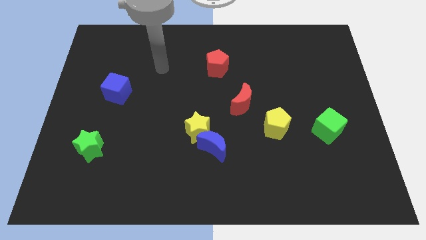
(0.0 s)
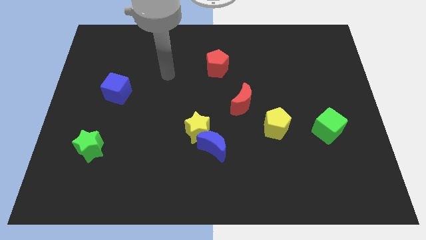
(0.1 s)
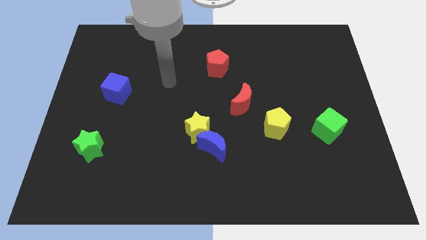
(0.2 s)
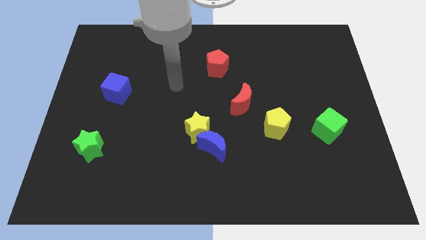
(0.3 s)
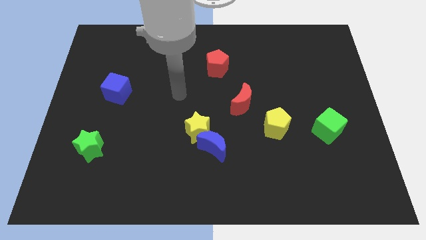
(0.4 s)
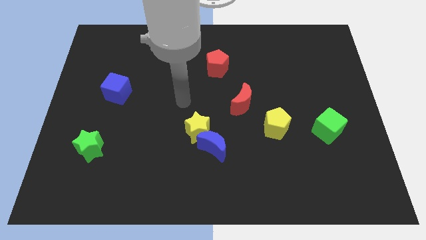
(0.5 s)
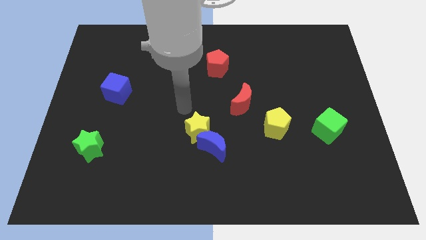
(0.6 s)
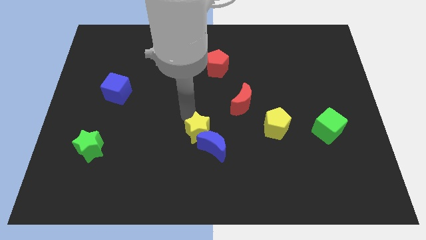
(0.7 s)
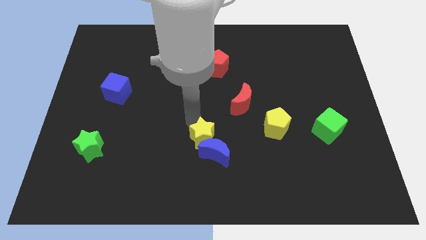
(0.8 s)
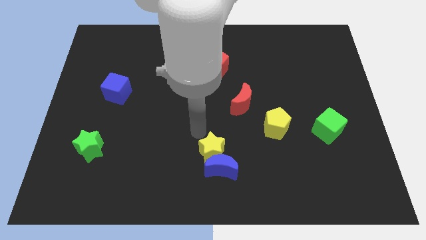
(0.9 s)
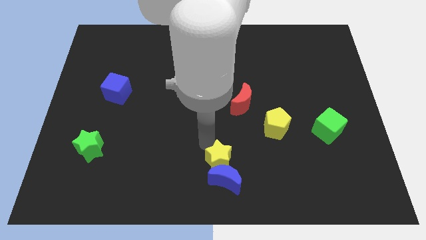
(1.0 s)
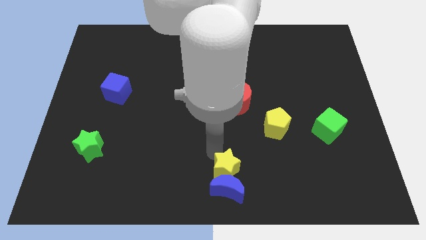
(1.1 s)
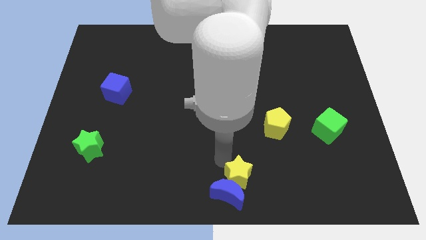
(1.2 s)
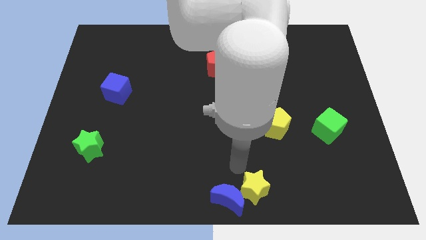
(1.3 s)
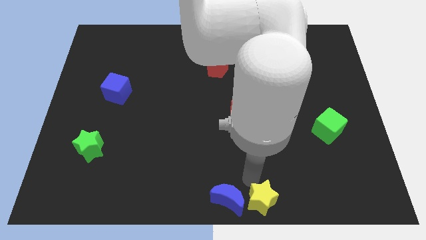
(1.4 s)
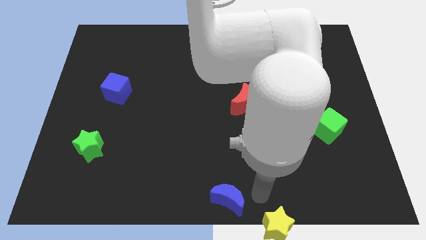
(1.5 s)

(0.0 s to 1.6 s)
move the blue moon away from the yellow star

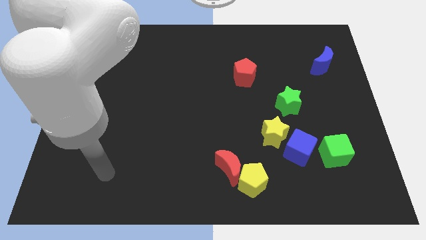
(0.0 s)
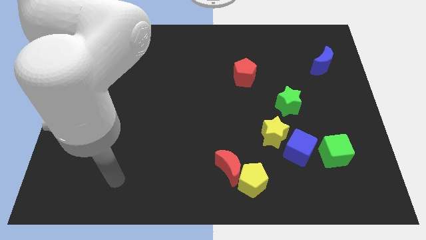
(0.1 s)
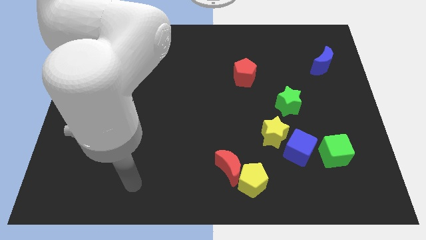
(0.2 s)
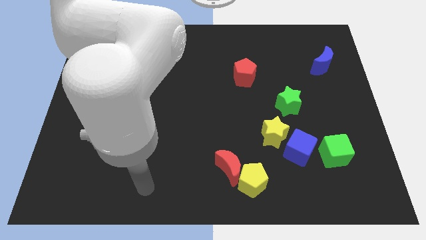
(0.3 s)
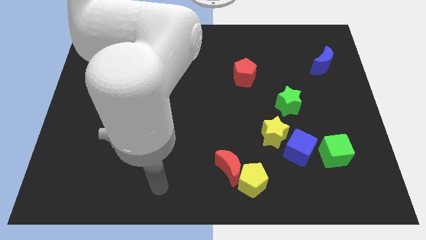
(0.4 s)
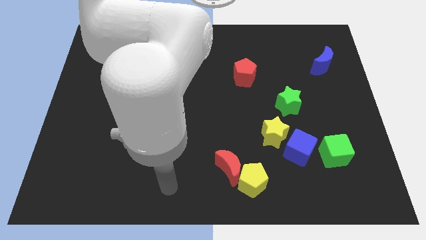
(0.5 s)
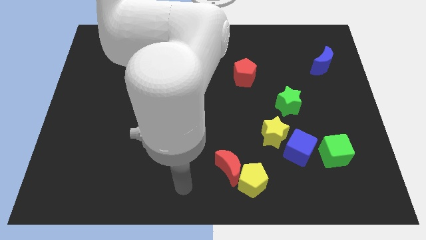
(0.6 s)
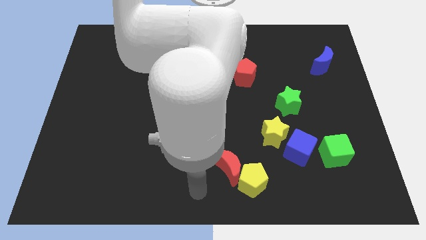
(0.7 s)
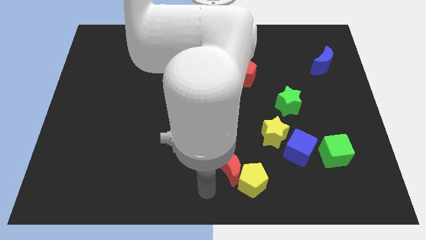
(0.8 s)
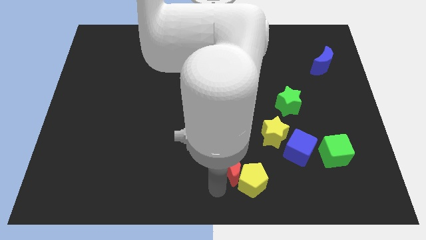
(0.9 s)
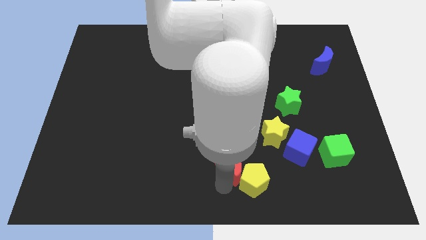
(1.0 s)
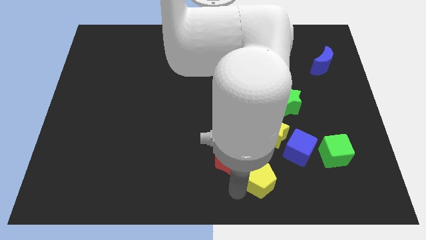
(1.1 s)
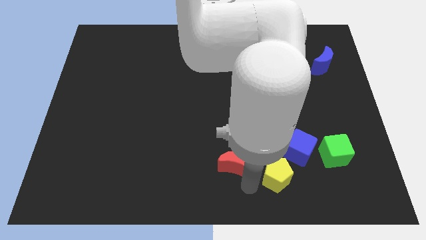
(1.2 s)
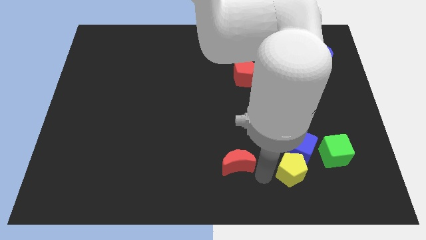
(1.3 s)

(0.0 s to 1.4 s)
move the red moon away from the yellow pentagon

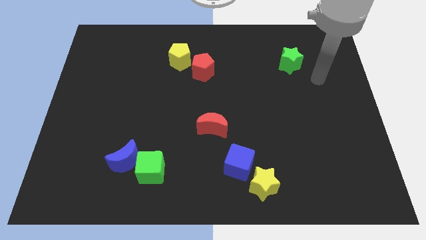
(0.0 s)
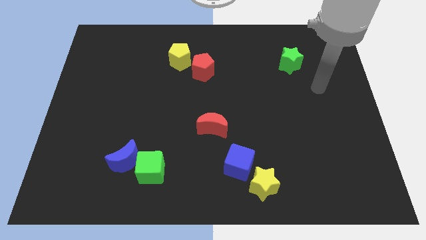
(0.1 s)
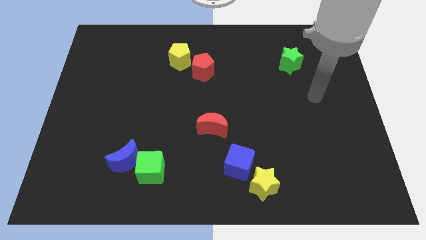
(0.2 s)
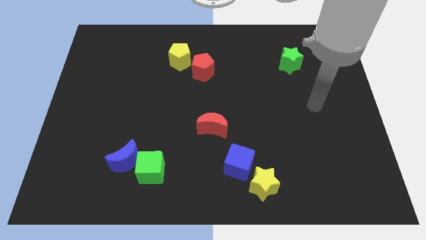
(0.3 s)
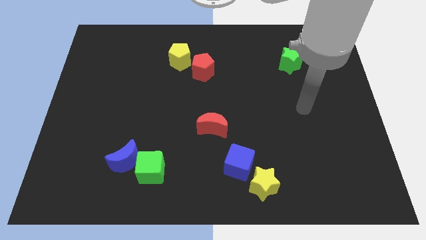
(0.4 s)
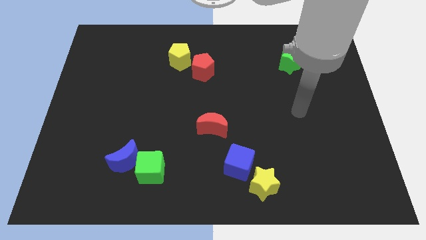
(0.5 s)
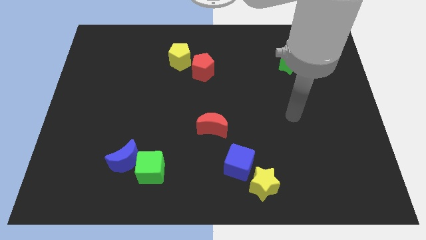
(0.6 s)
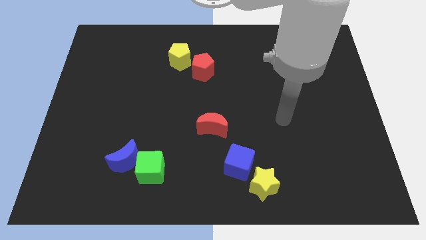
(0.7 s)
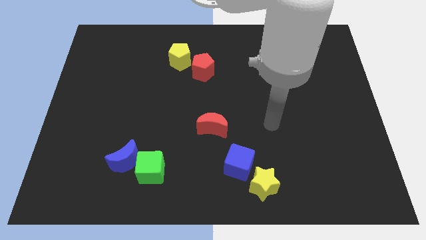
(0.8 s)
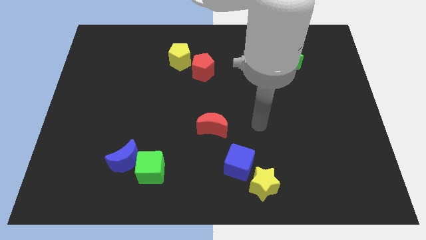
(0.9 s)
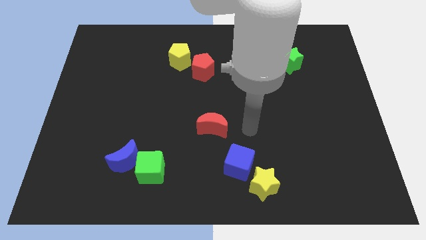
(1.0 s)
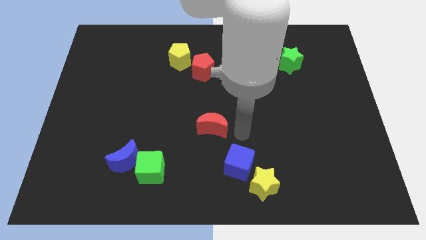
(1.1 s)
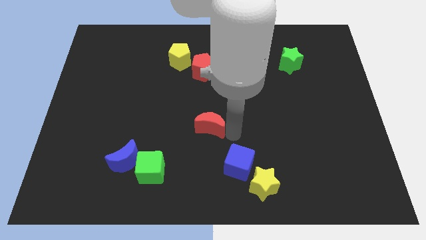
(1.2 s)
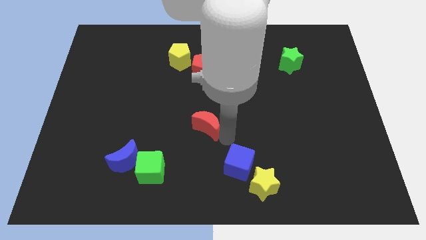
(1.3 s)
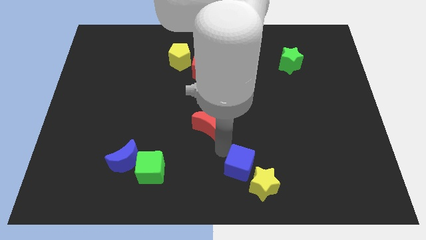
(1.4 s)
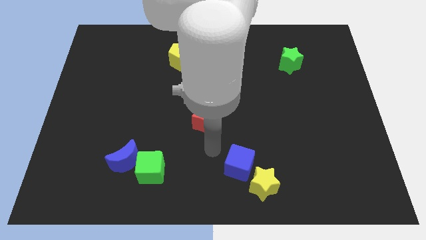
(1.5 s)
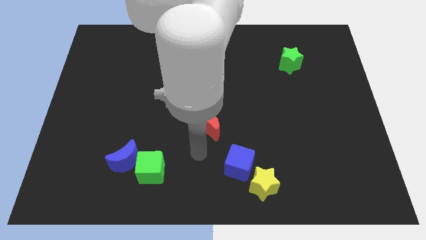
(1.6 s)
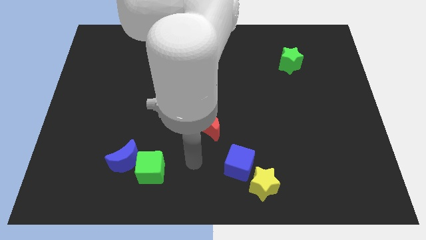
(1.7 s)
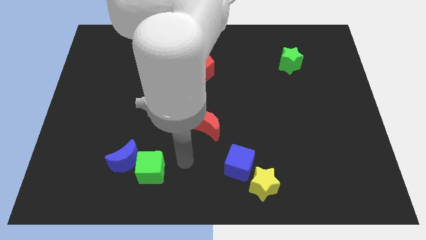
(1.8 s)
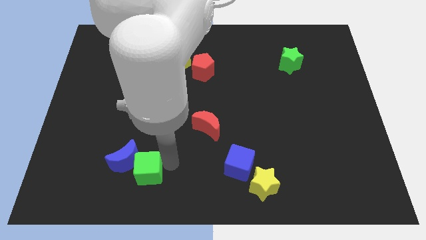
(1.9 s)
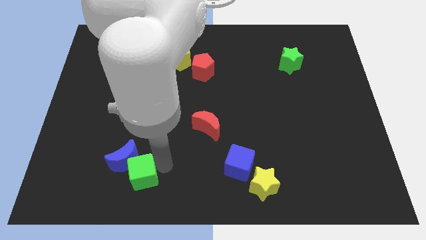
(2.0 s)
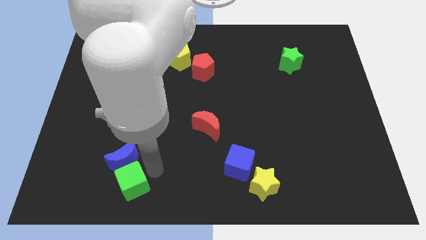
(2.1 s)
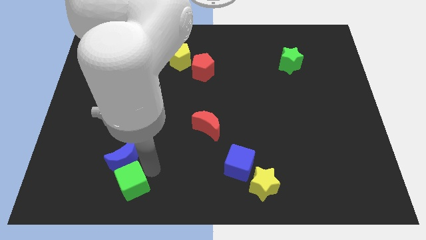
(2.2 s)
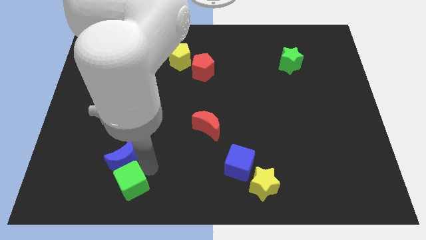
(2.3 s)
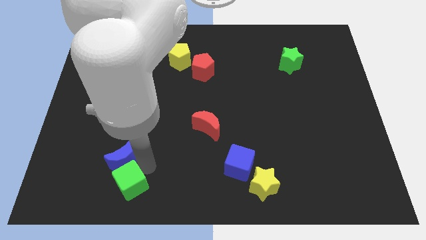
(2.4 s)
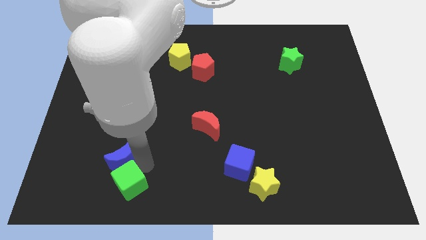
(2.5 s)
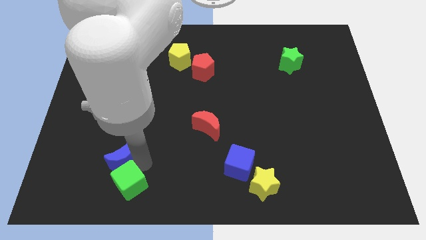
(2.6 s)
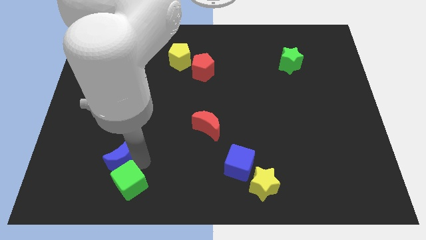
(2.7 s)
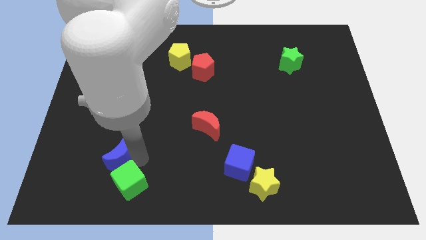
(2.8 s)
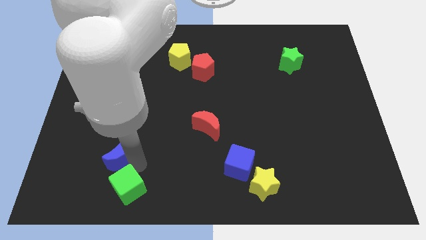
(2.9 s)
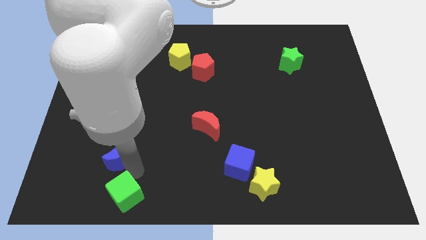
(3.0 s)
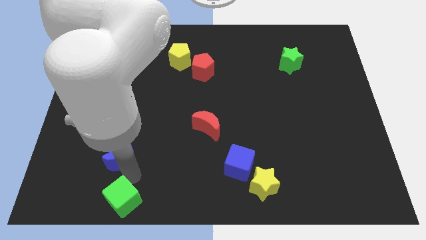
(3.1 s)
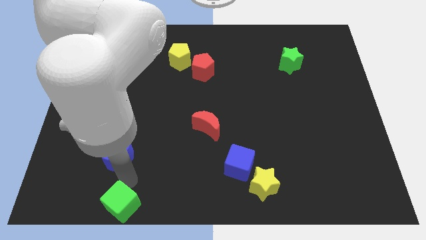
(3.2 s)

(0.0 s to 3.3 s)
pull the blue moon apart from the green cube

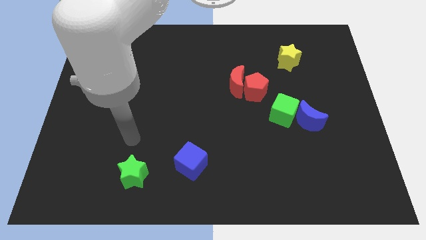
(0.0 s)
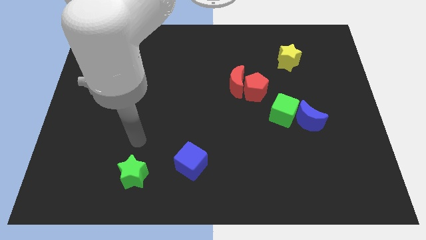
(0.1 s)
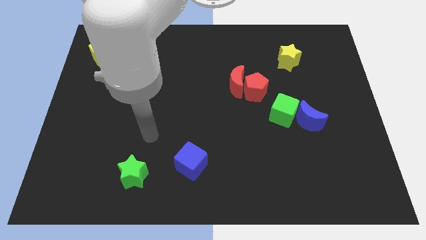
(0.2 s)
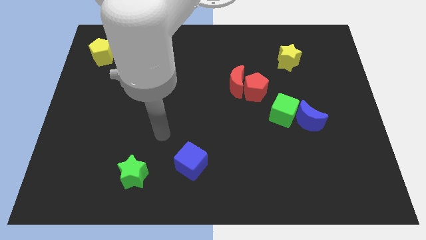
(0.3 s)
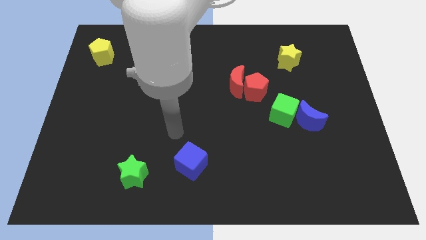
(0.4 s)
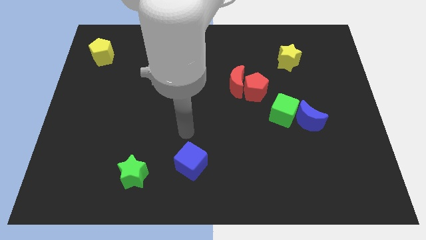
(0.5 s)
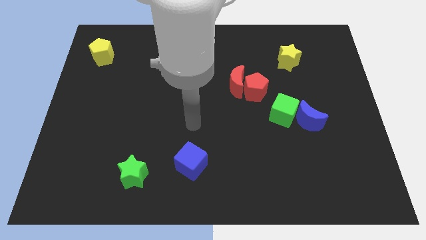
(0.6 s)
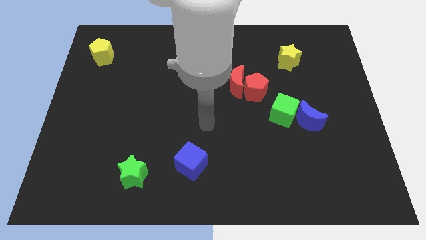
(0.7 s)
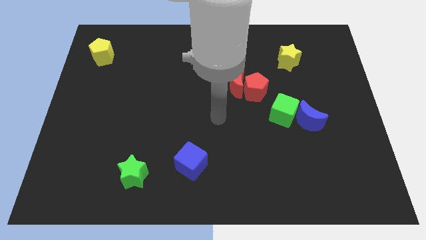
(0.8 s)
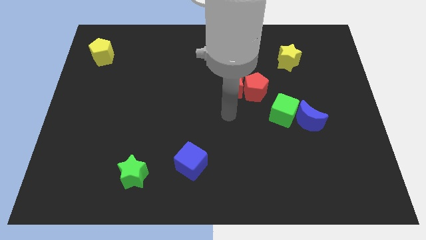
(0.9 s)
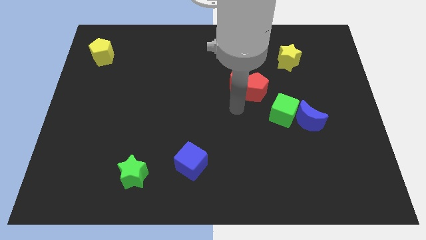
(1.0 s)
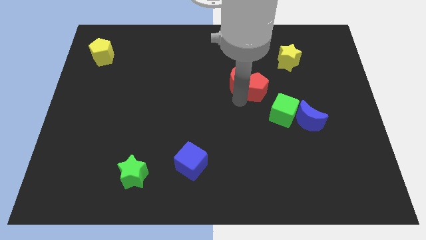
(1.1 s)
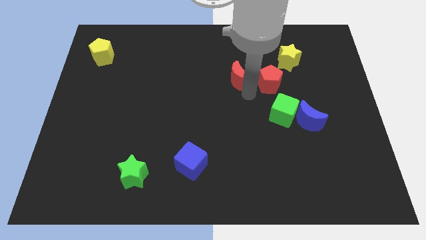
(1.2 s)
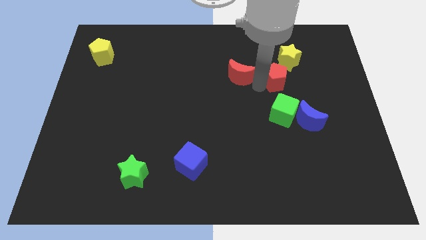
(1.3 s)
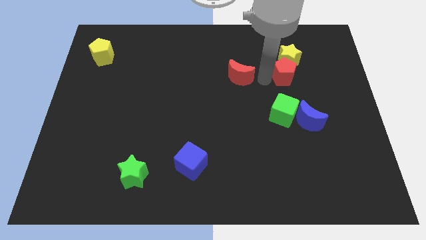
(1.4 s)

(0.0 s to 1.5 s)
move the red moon away from the red pentagon

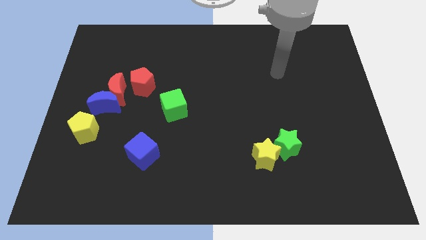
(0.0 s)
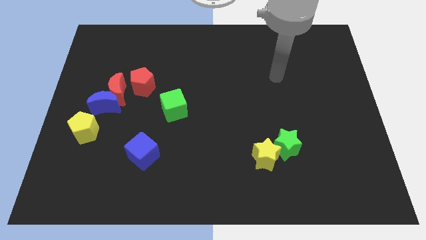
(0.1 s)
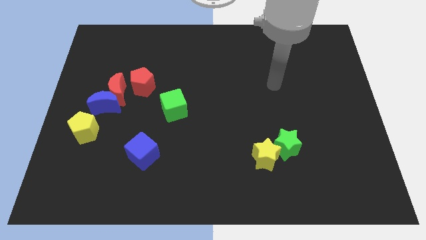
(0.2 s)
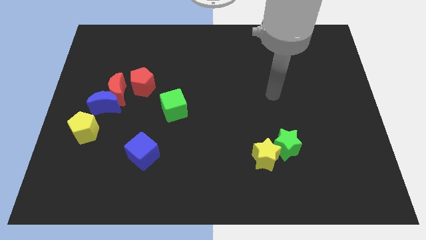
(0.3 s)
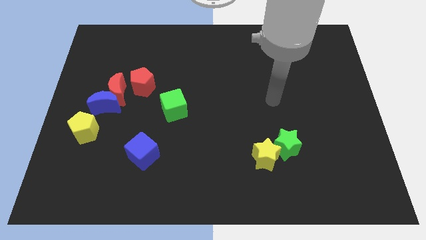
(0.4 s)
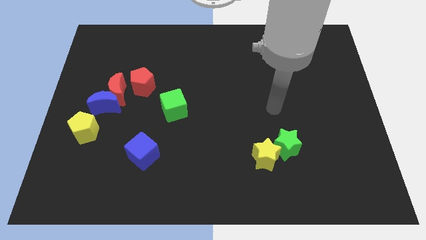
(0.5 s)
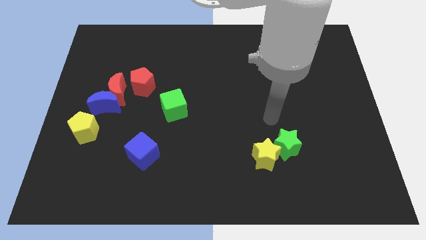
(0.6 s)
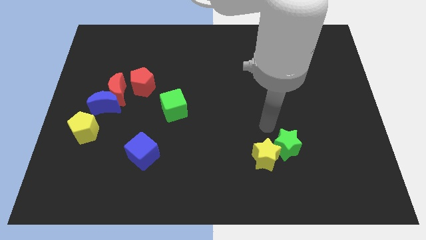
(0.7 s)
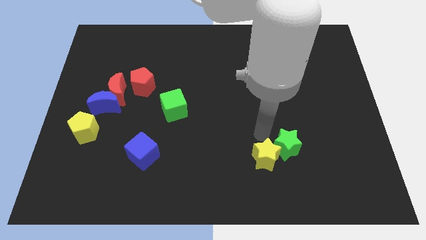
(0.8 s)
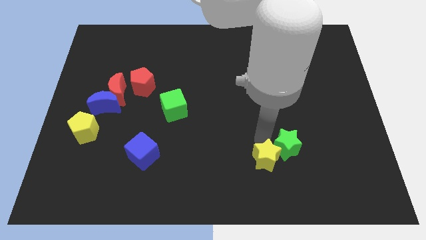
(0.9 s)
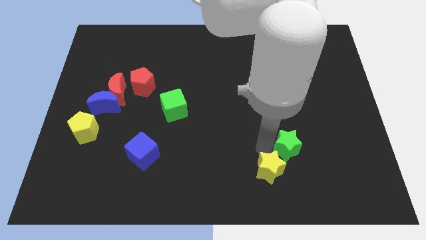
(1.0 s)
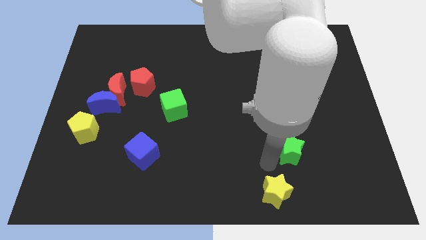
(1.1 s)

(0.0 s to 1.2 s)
pull the green star apart from the yellow star

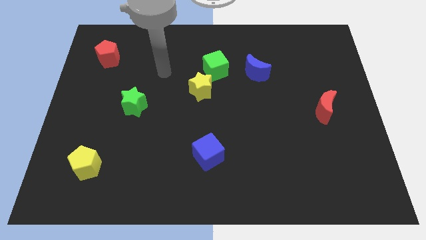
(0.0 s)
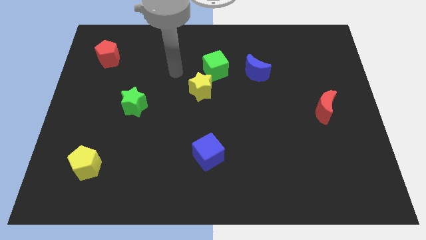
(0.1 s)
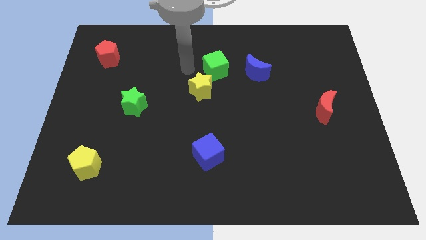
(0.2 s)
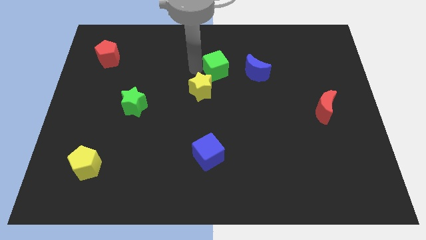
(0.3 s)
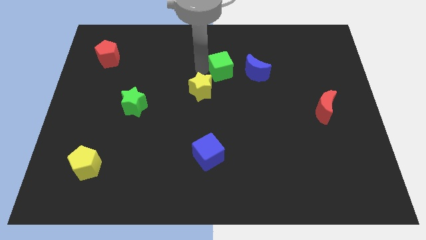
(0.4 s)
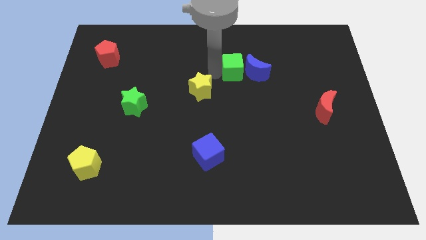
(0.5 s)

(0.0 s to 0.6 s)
pull the yellow star apart from the green cube
